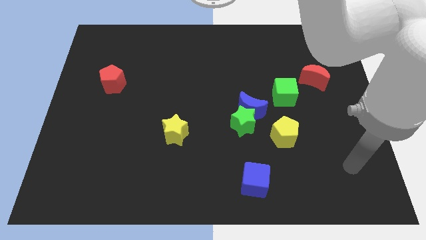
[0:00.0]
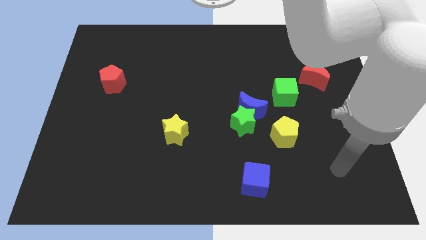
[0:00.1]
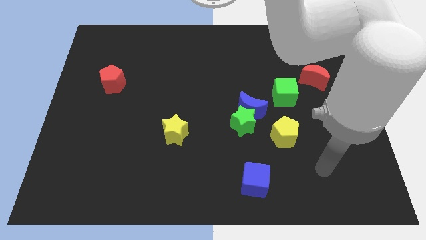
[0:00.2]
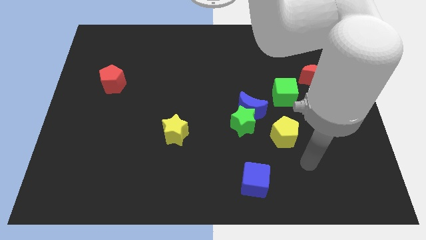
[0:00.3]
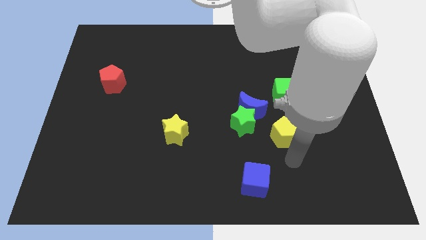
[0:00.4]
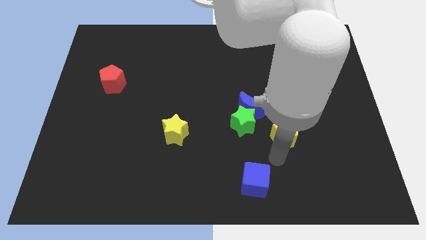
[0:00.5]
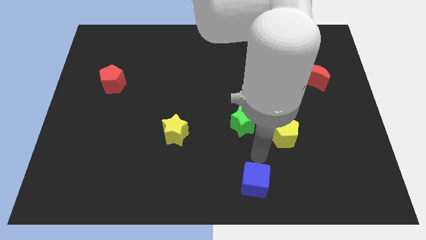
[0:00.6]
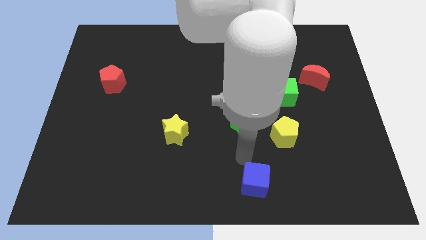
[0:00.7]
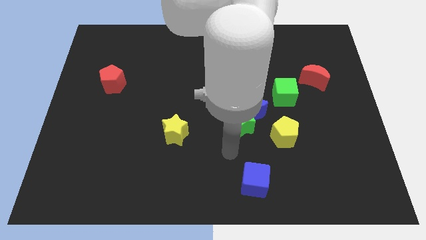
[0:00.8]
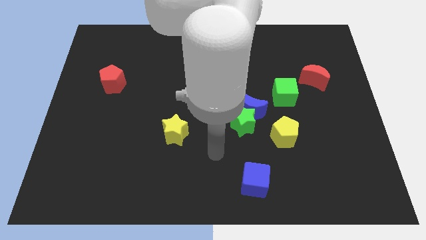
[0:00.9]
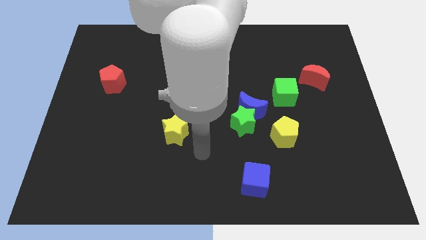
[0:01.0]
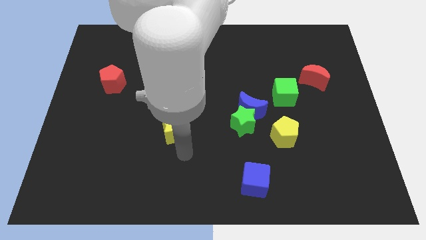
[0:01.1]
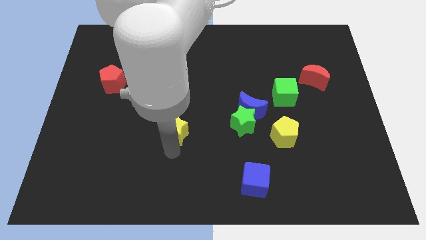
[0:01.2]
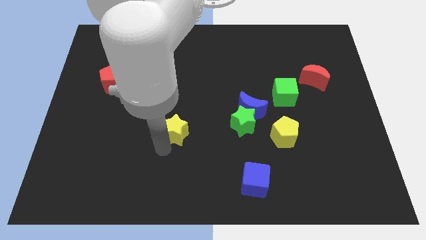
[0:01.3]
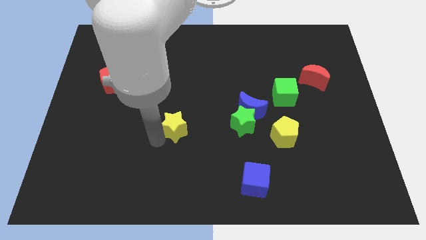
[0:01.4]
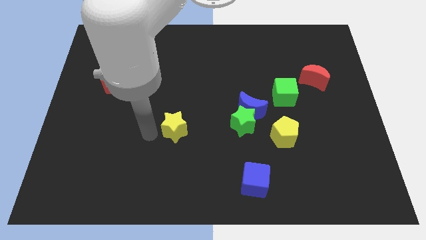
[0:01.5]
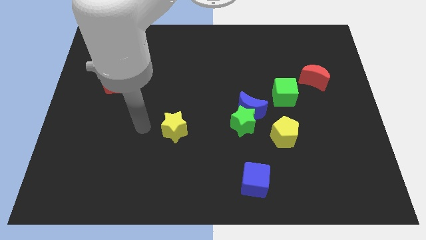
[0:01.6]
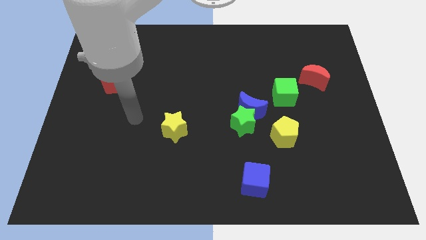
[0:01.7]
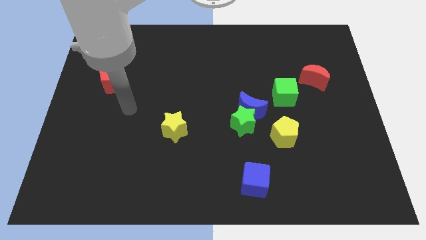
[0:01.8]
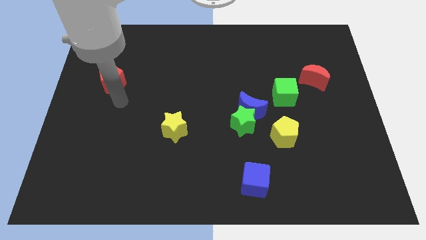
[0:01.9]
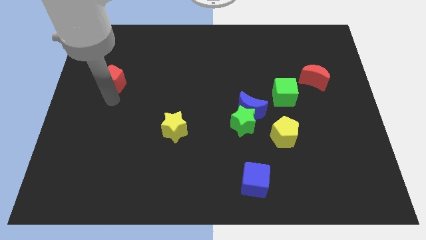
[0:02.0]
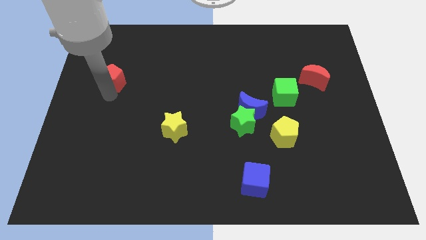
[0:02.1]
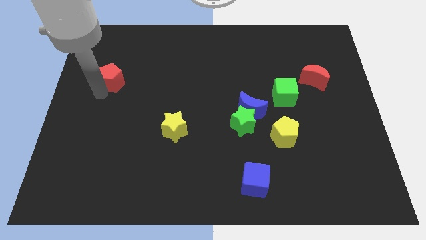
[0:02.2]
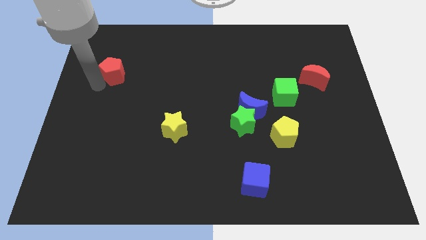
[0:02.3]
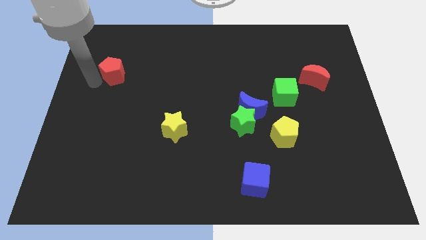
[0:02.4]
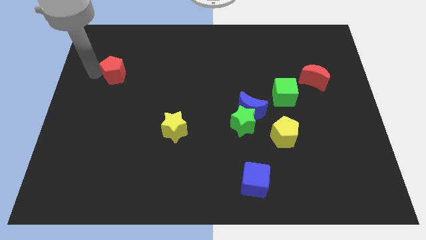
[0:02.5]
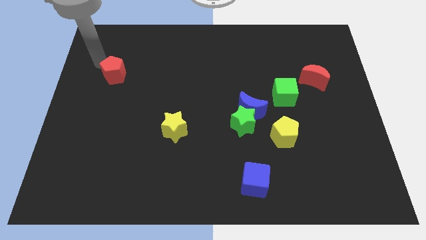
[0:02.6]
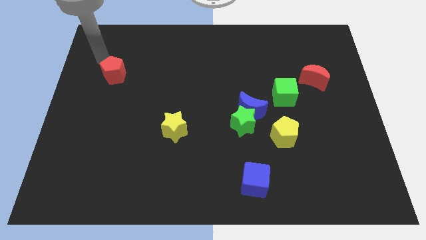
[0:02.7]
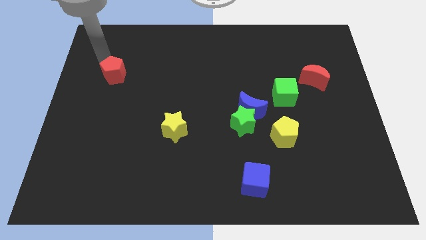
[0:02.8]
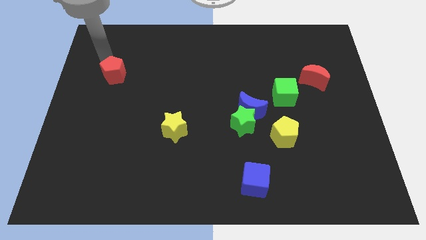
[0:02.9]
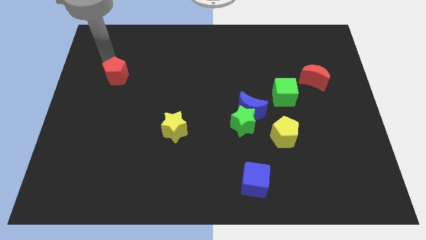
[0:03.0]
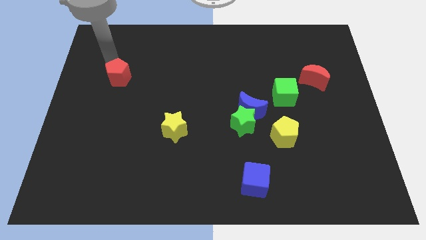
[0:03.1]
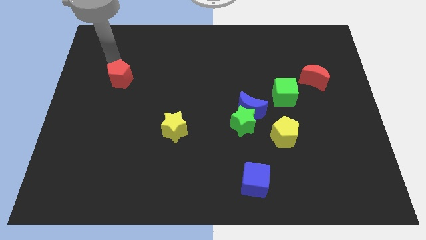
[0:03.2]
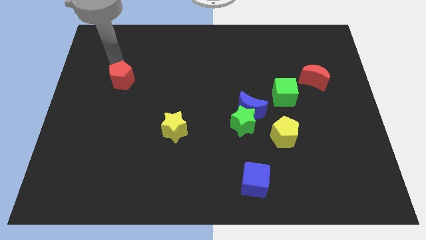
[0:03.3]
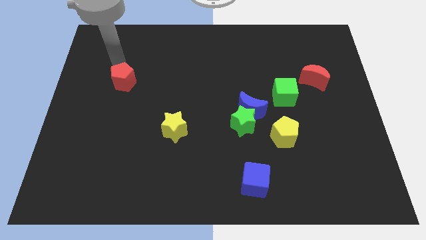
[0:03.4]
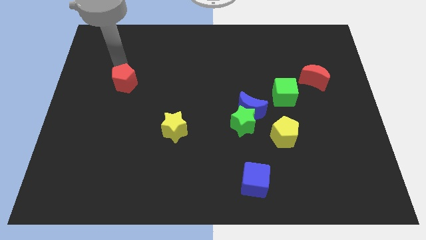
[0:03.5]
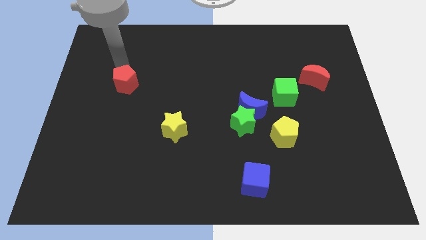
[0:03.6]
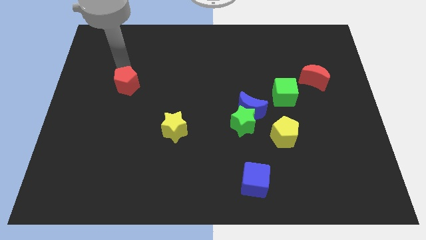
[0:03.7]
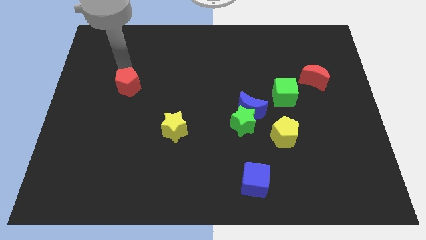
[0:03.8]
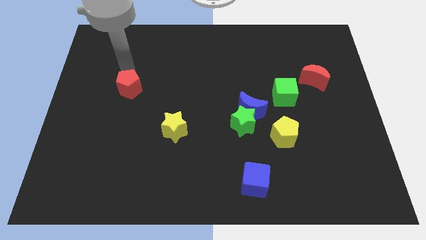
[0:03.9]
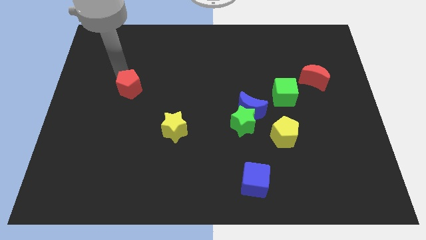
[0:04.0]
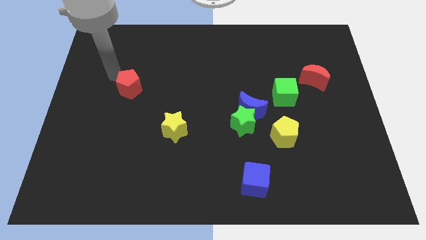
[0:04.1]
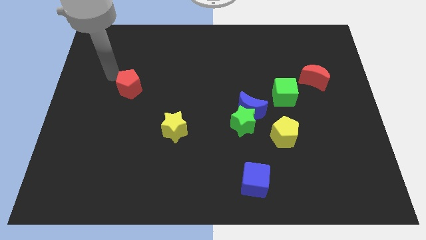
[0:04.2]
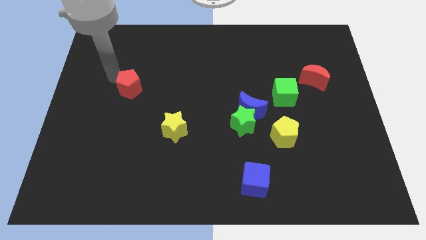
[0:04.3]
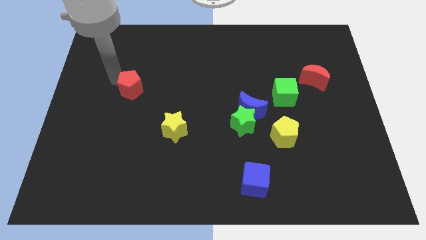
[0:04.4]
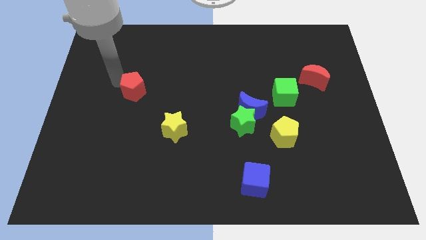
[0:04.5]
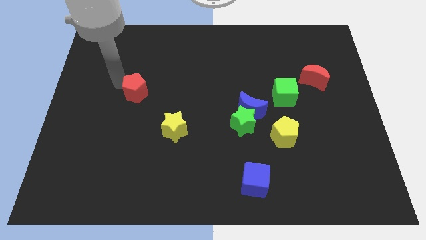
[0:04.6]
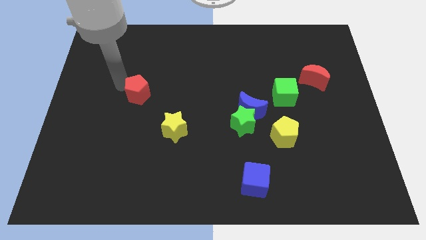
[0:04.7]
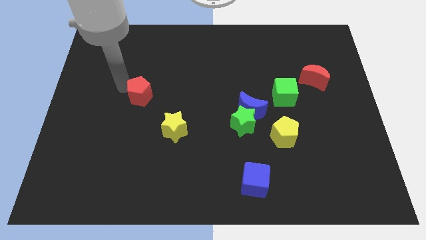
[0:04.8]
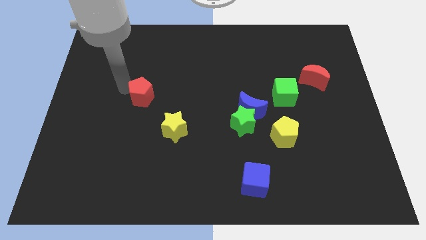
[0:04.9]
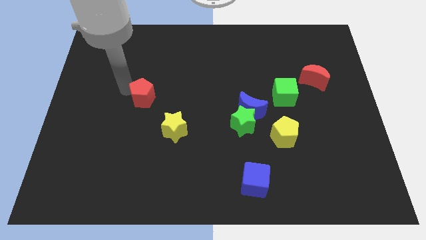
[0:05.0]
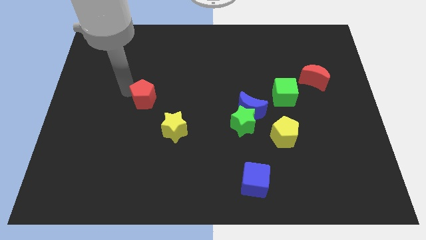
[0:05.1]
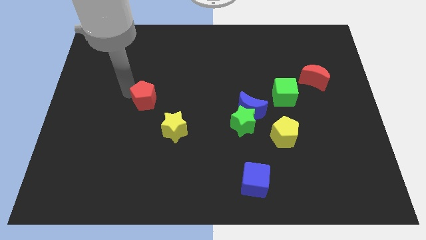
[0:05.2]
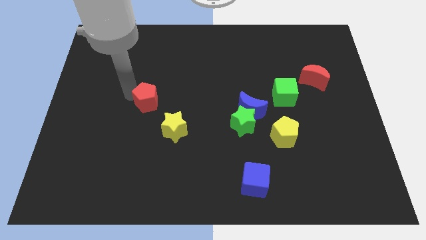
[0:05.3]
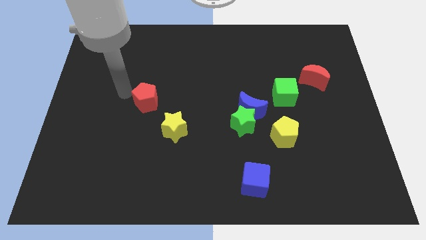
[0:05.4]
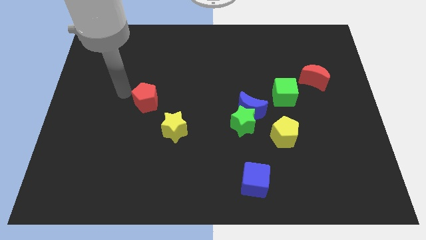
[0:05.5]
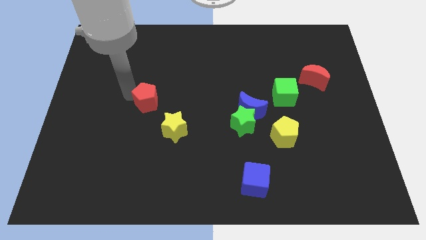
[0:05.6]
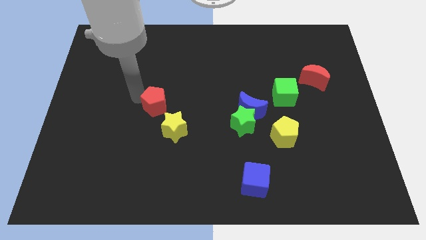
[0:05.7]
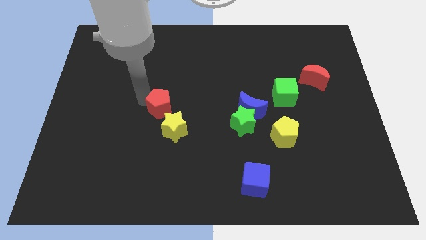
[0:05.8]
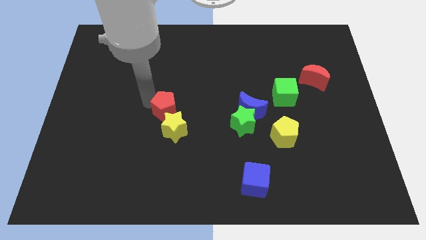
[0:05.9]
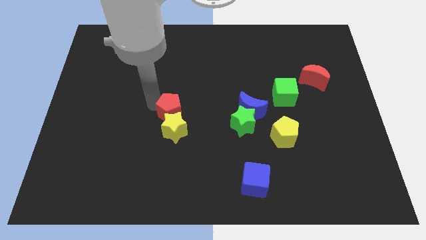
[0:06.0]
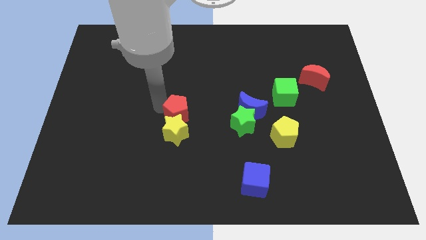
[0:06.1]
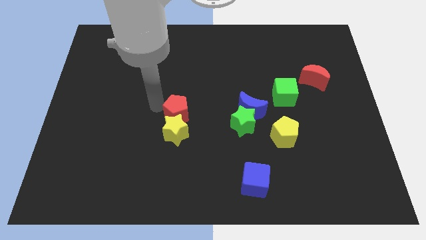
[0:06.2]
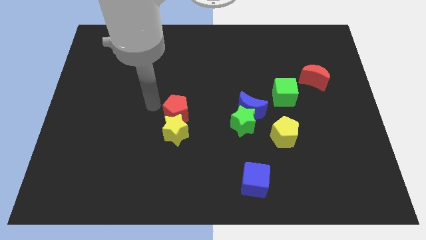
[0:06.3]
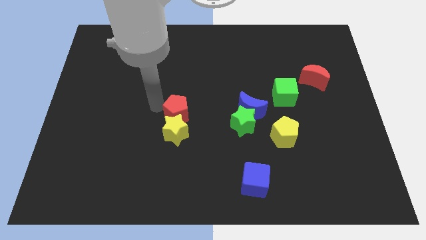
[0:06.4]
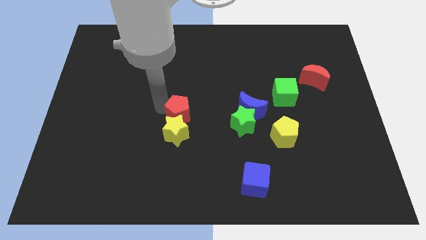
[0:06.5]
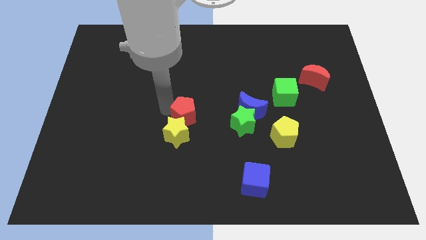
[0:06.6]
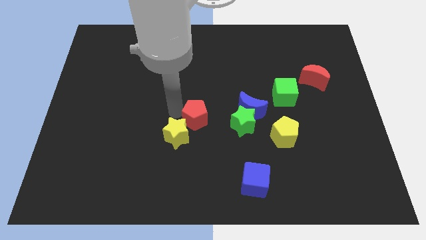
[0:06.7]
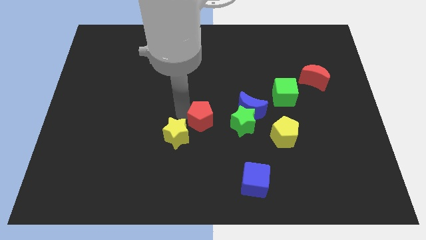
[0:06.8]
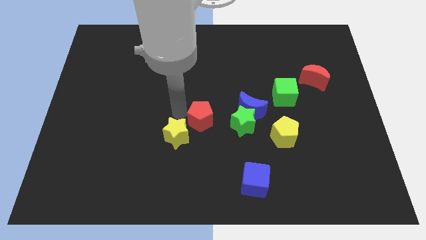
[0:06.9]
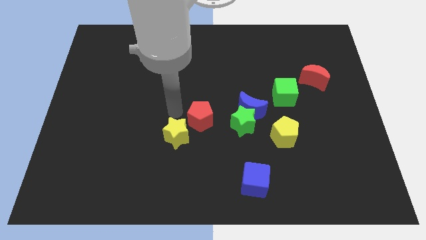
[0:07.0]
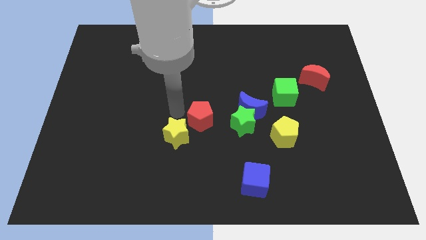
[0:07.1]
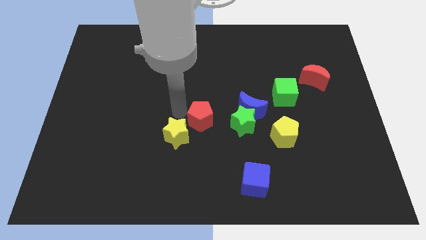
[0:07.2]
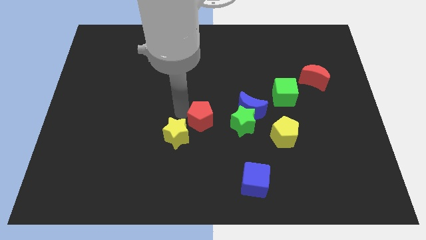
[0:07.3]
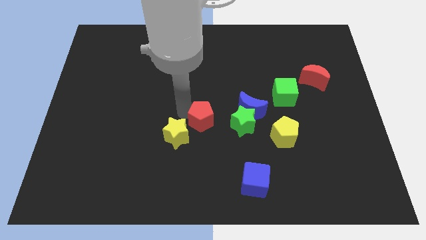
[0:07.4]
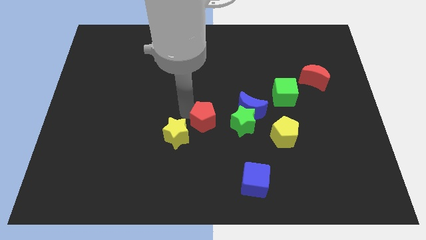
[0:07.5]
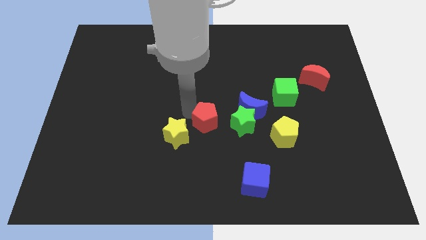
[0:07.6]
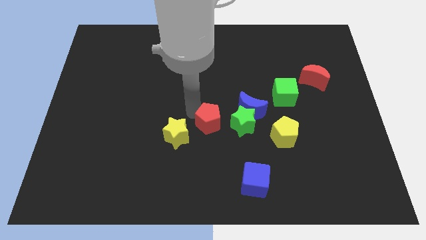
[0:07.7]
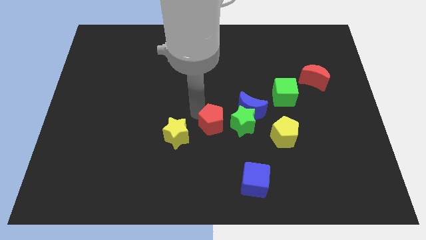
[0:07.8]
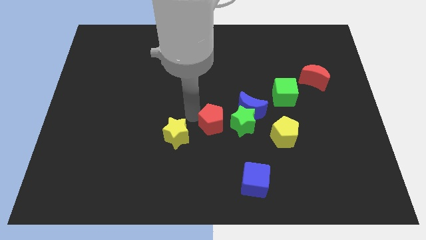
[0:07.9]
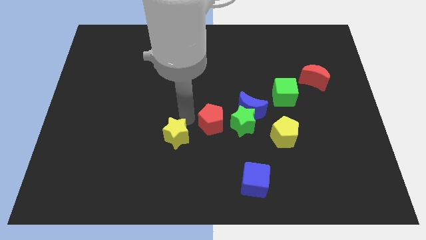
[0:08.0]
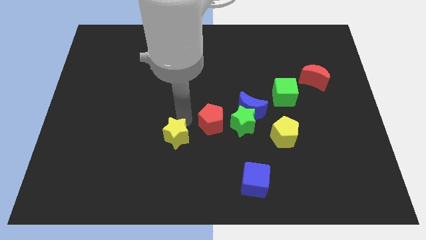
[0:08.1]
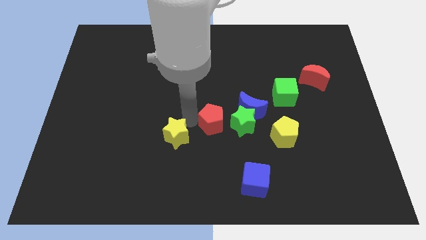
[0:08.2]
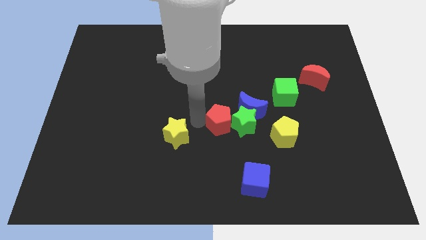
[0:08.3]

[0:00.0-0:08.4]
move the red pentagon towards the green star
